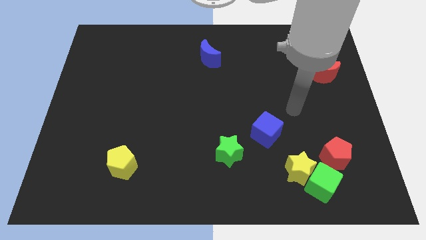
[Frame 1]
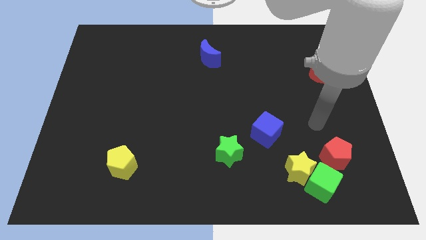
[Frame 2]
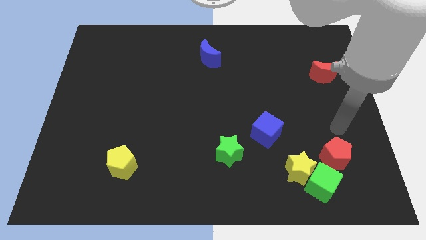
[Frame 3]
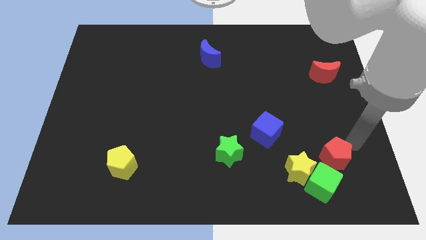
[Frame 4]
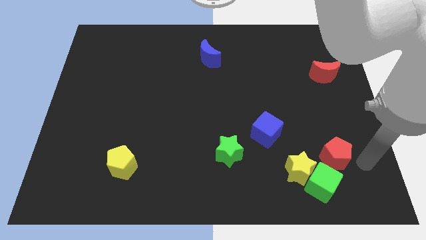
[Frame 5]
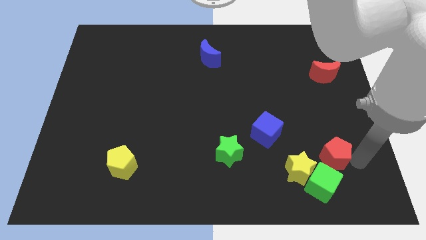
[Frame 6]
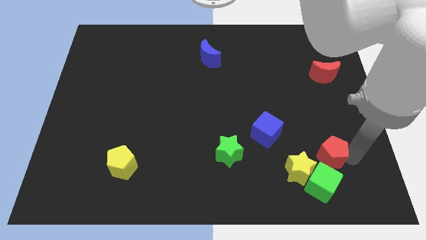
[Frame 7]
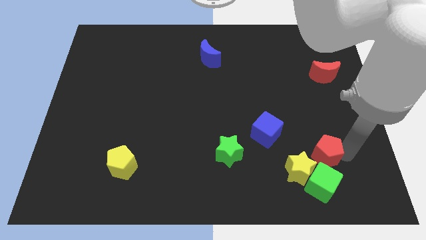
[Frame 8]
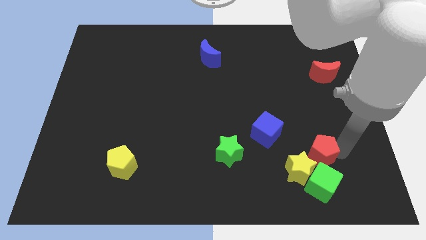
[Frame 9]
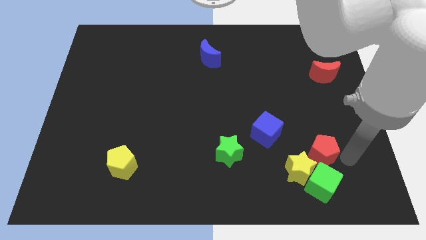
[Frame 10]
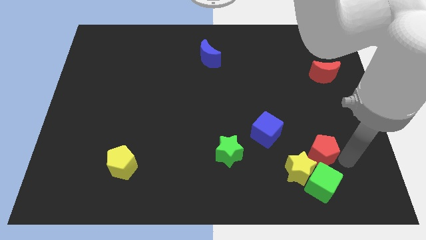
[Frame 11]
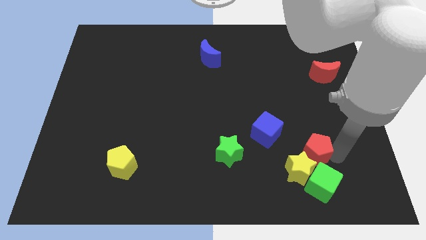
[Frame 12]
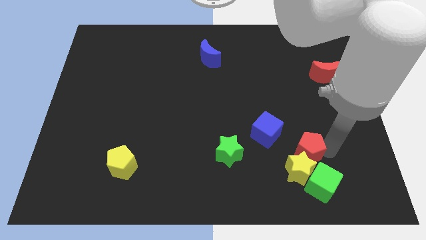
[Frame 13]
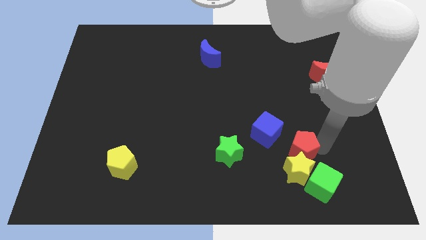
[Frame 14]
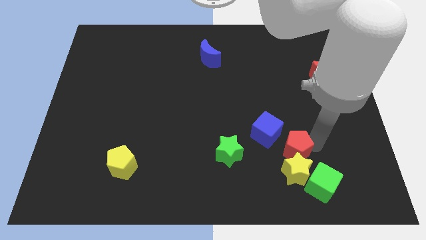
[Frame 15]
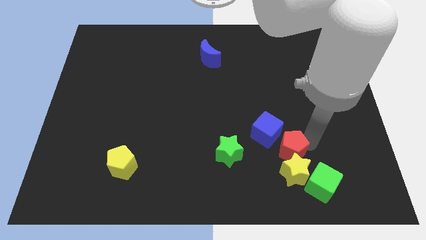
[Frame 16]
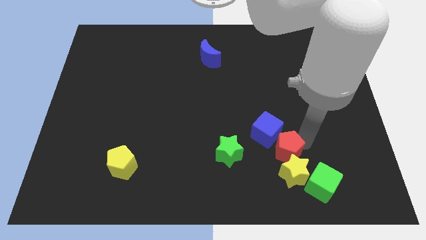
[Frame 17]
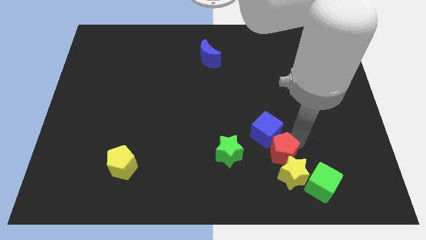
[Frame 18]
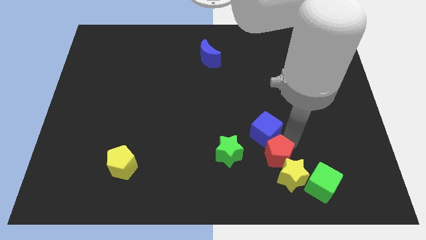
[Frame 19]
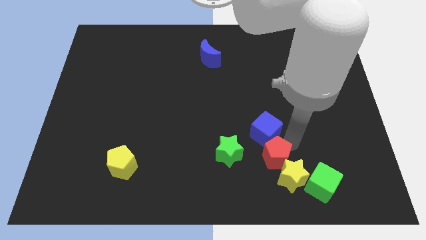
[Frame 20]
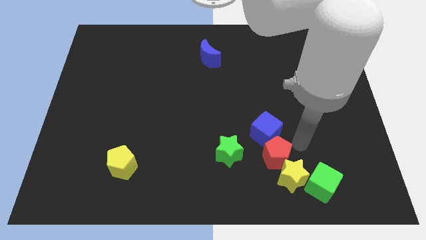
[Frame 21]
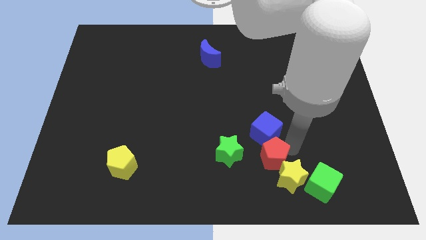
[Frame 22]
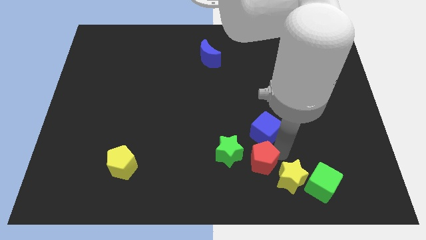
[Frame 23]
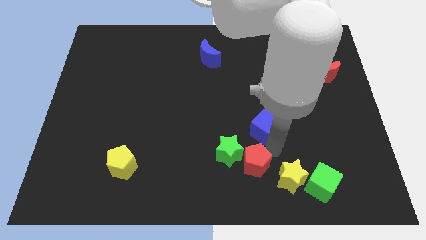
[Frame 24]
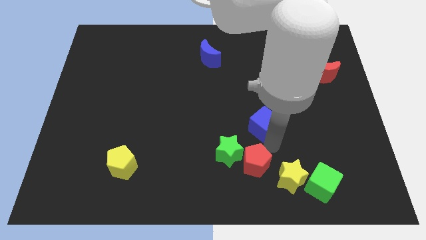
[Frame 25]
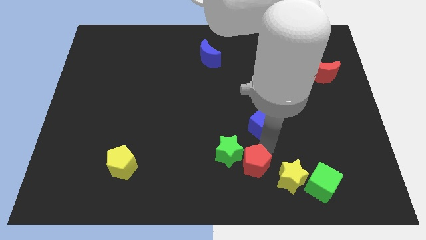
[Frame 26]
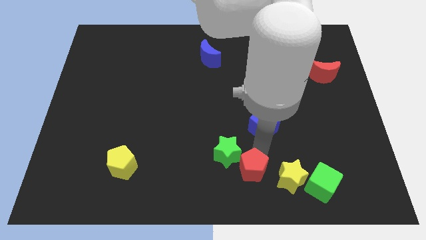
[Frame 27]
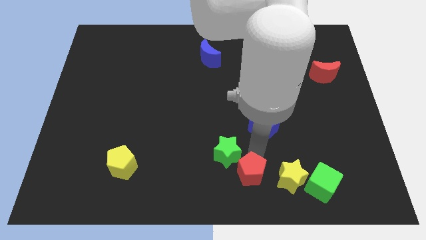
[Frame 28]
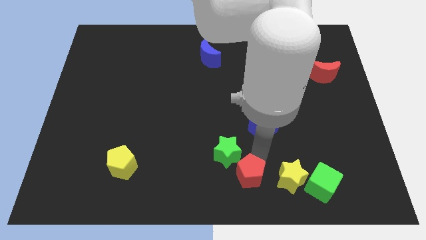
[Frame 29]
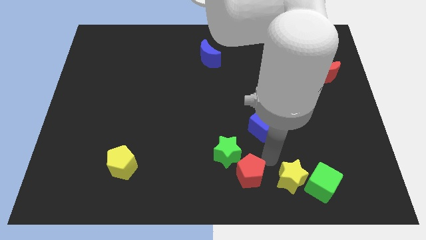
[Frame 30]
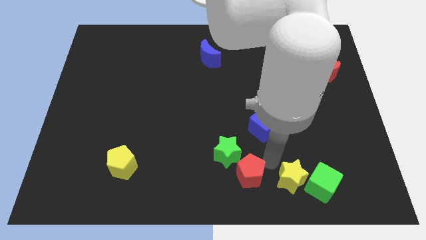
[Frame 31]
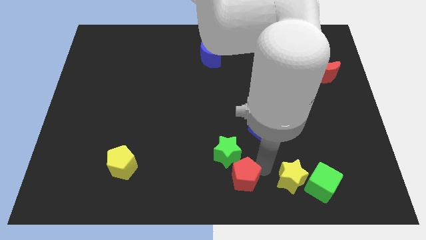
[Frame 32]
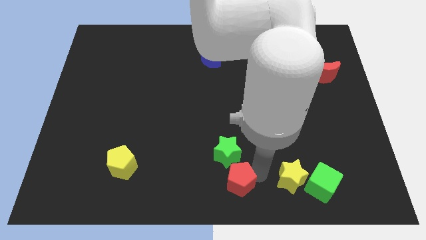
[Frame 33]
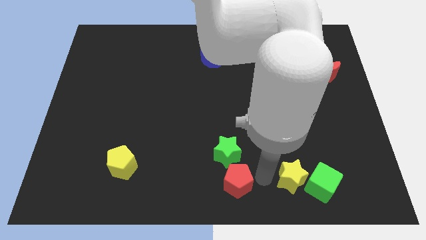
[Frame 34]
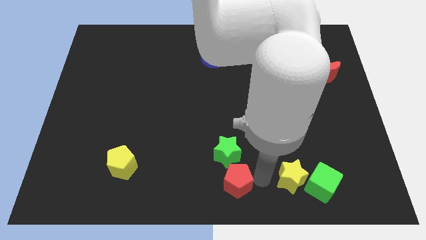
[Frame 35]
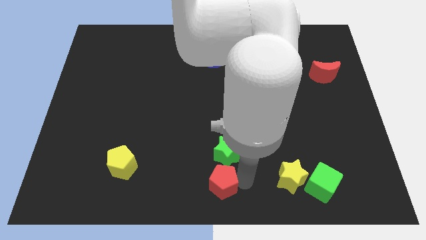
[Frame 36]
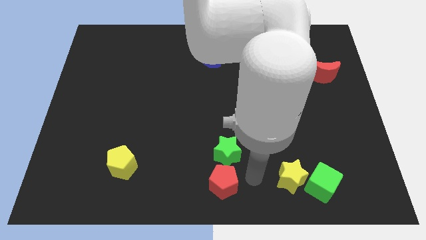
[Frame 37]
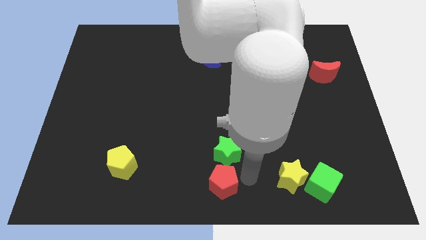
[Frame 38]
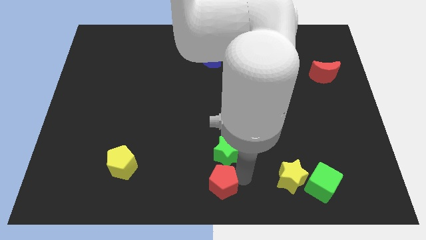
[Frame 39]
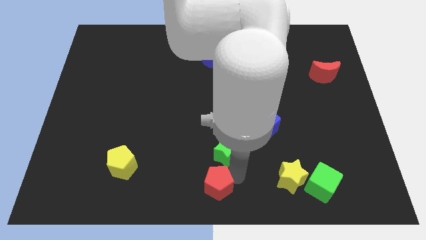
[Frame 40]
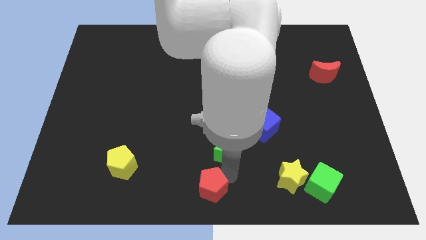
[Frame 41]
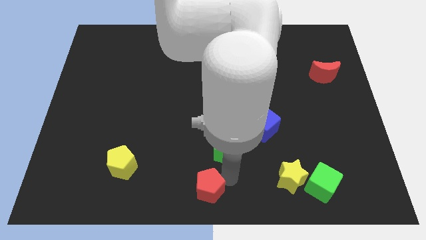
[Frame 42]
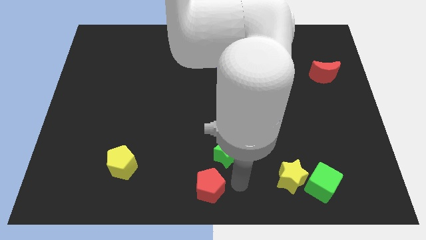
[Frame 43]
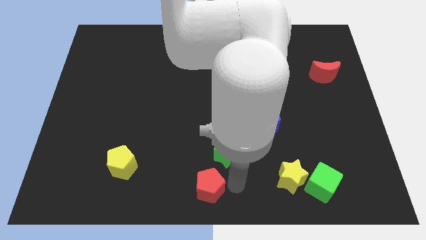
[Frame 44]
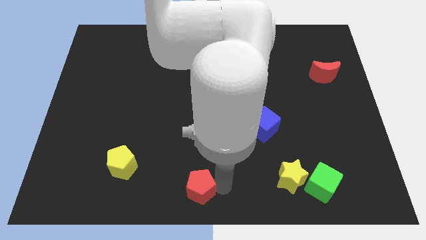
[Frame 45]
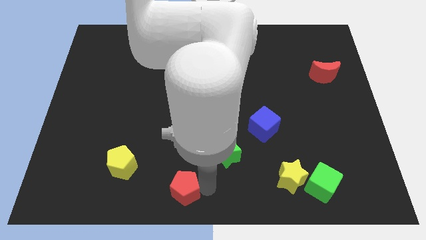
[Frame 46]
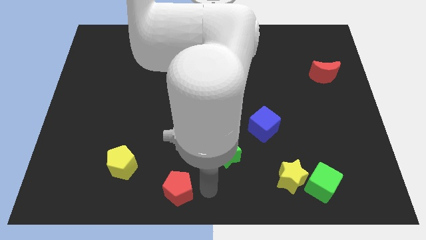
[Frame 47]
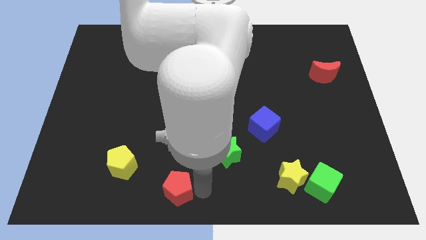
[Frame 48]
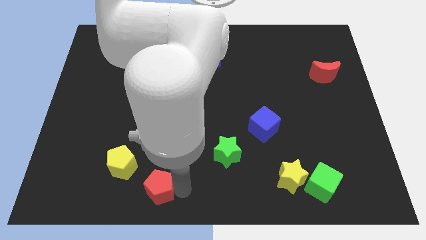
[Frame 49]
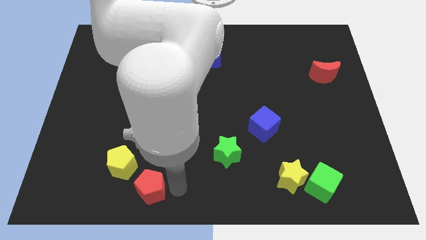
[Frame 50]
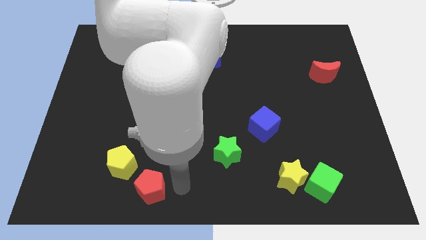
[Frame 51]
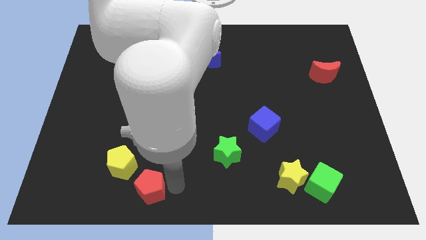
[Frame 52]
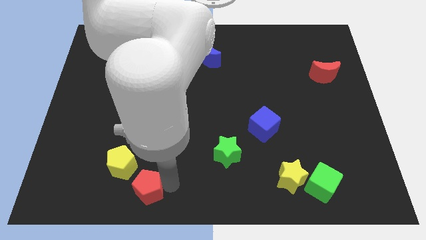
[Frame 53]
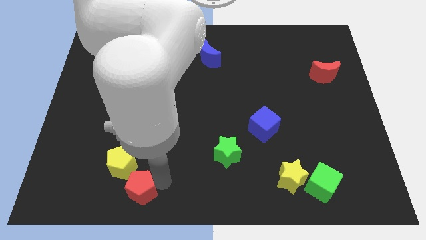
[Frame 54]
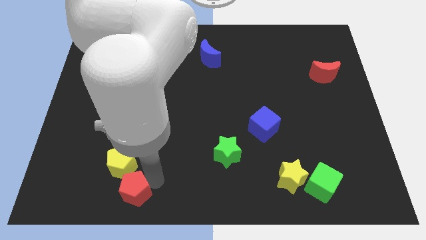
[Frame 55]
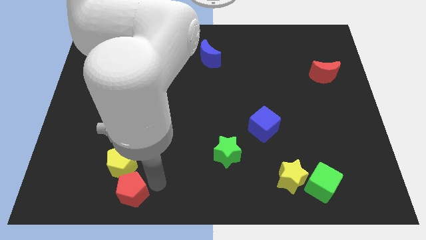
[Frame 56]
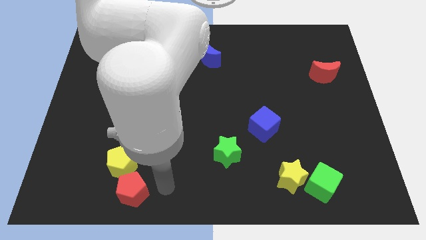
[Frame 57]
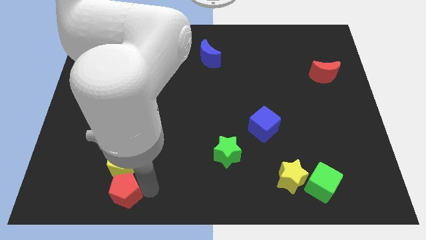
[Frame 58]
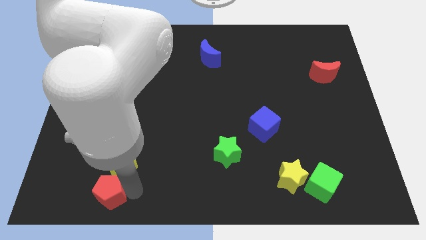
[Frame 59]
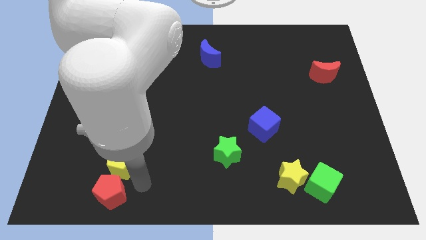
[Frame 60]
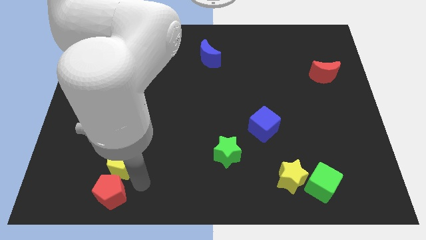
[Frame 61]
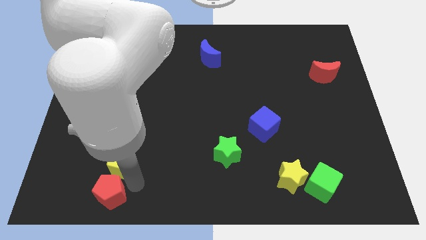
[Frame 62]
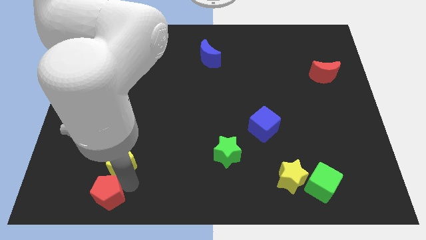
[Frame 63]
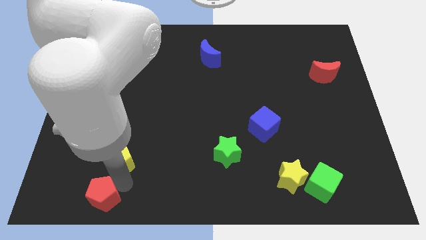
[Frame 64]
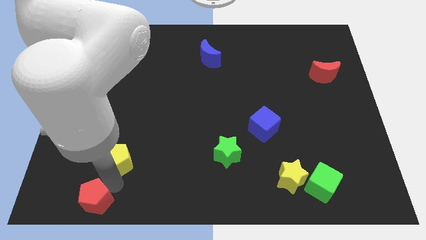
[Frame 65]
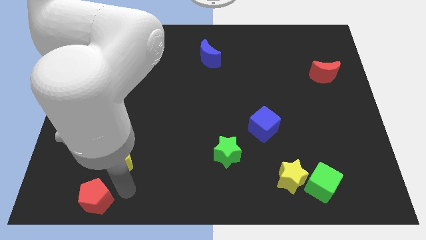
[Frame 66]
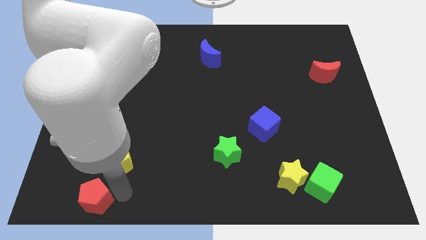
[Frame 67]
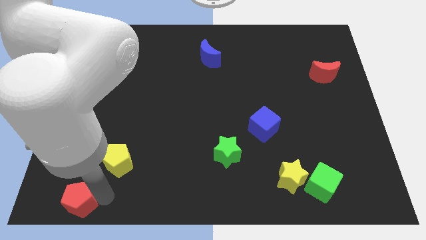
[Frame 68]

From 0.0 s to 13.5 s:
push the red pentagon to the bottom left
